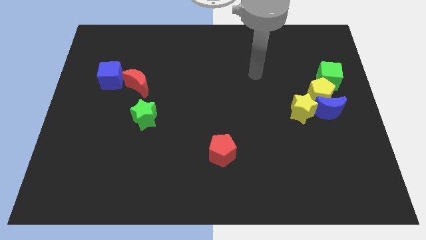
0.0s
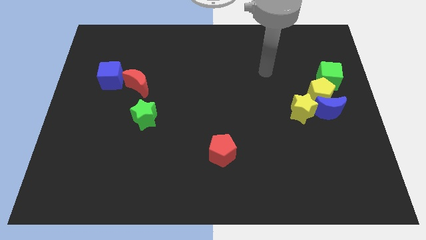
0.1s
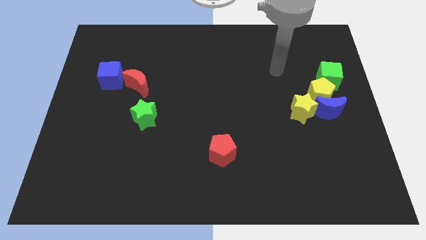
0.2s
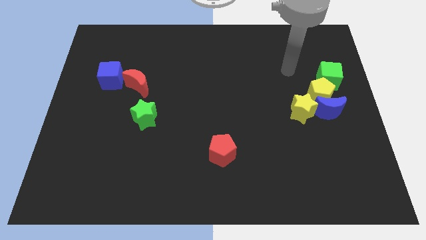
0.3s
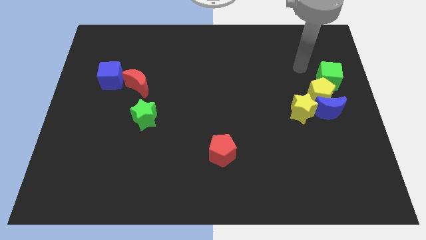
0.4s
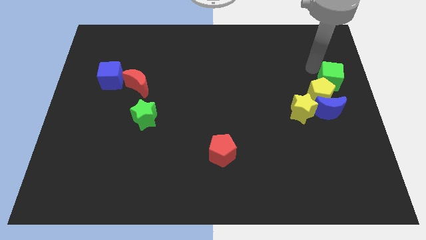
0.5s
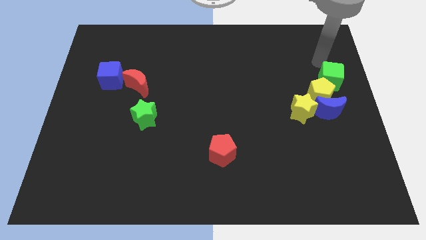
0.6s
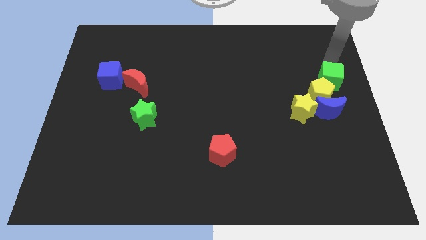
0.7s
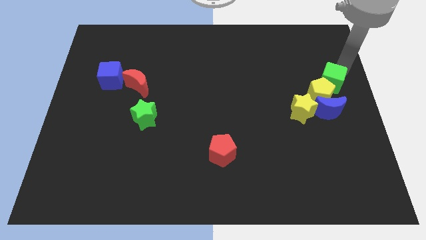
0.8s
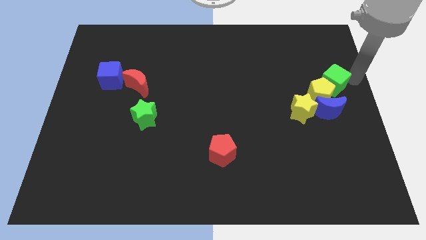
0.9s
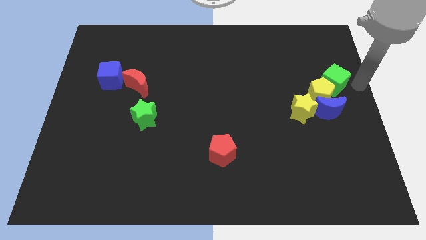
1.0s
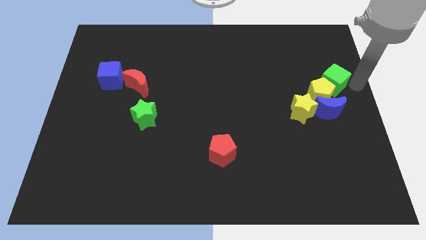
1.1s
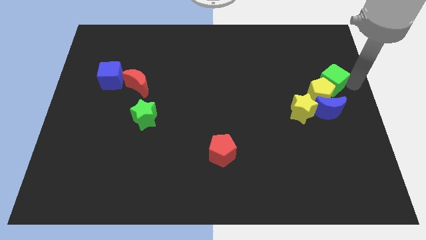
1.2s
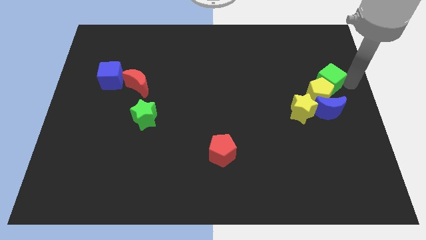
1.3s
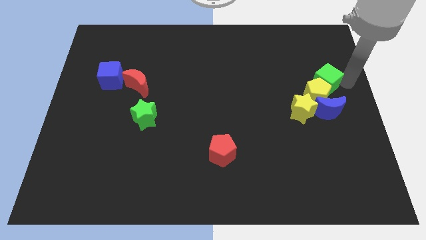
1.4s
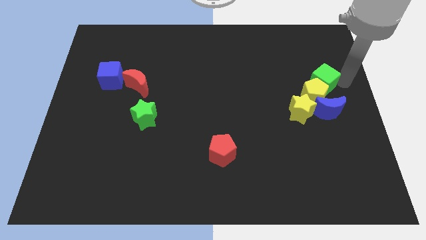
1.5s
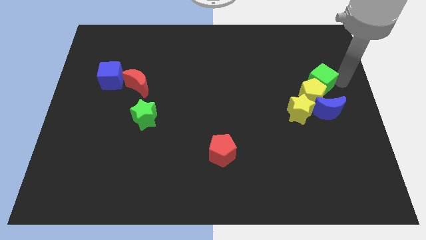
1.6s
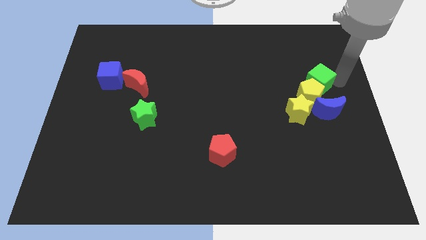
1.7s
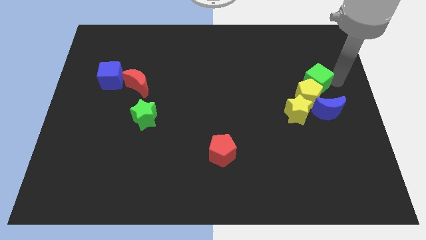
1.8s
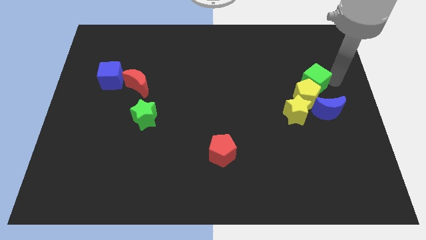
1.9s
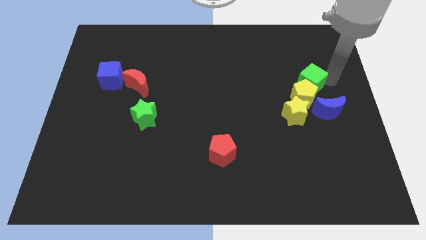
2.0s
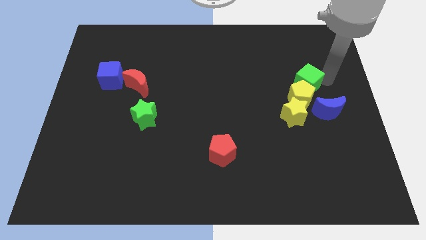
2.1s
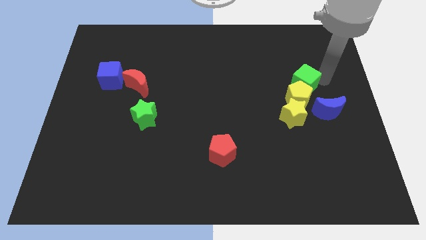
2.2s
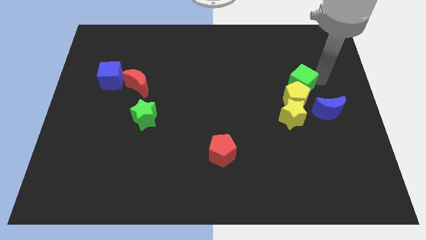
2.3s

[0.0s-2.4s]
move the green cube somewhat left

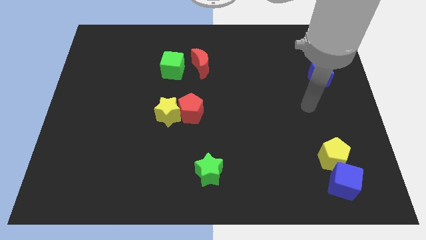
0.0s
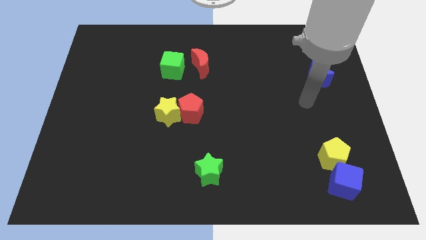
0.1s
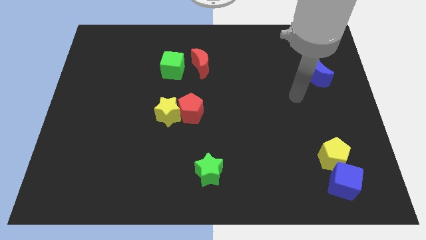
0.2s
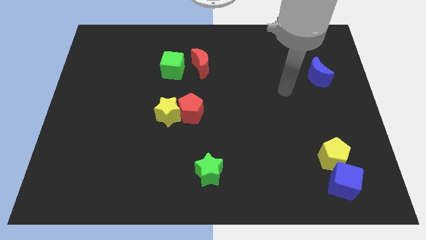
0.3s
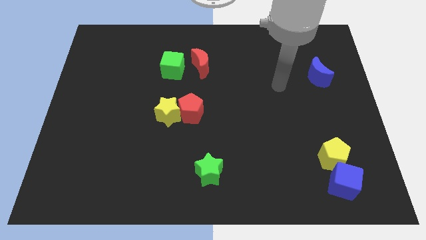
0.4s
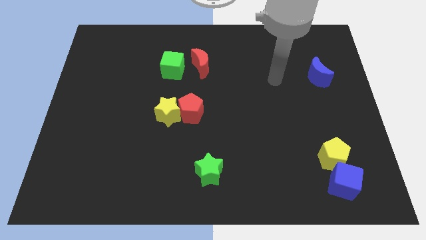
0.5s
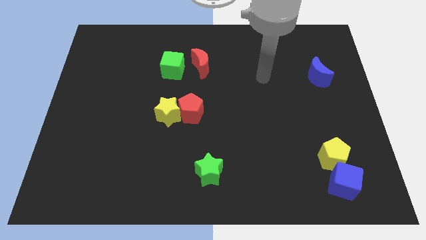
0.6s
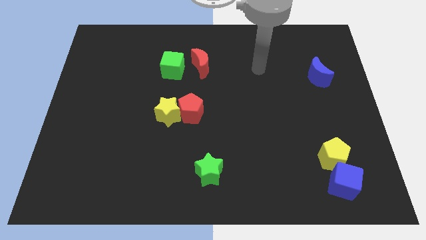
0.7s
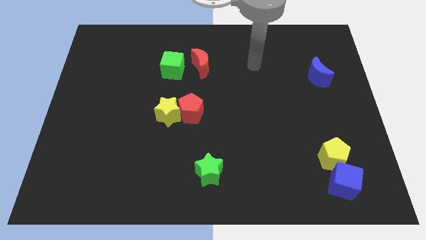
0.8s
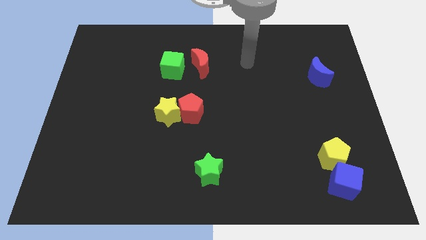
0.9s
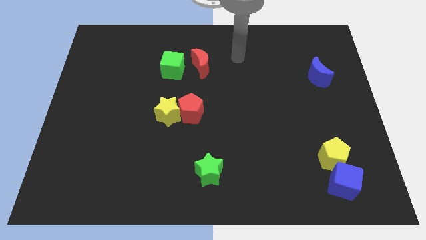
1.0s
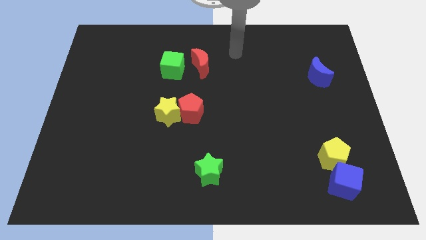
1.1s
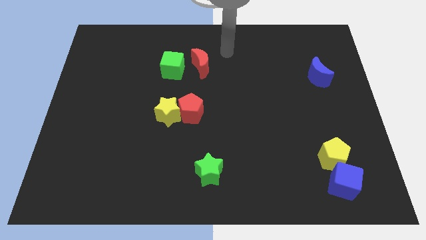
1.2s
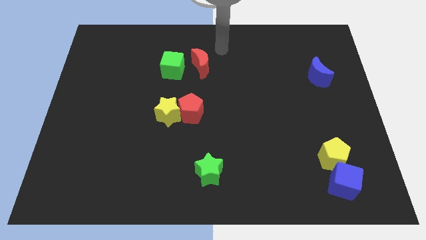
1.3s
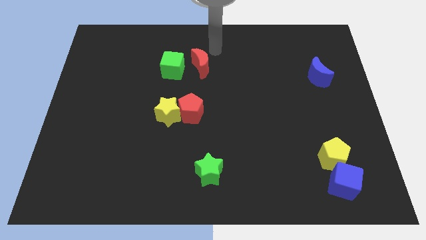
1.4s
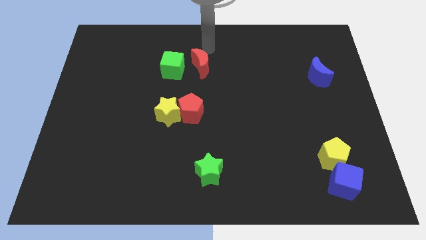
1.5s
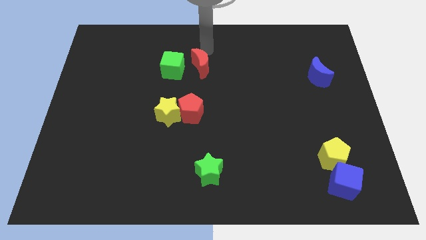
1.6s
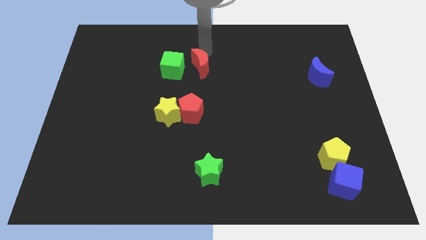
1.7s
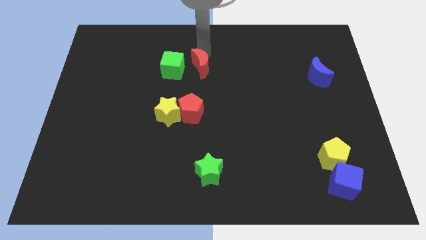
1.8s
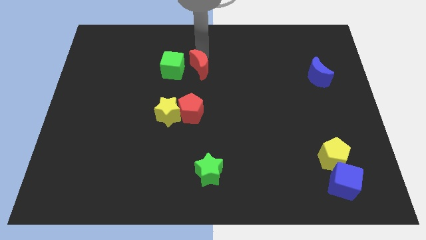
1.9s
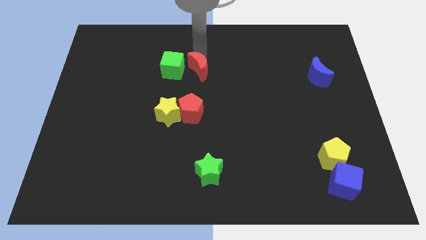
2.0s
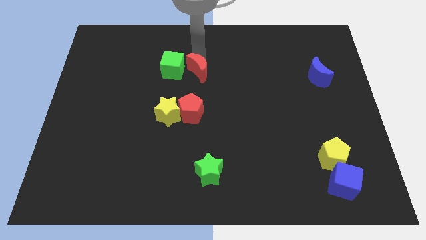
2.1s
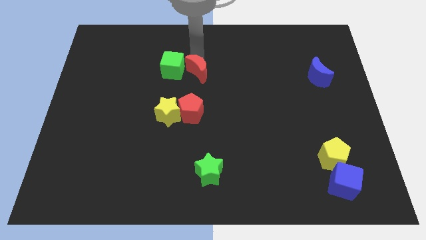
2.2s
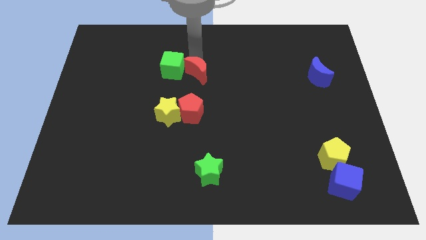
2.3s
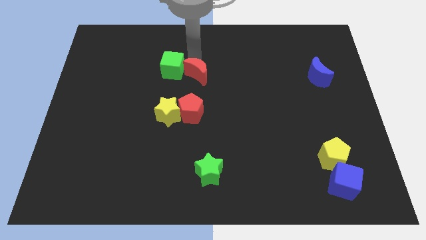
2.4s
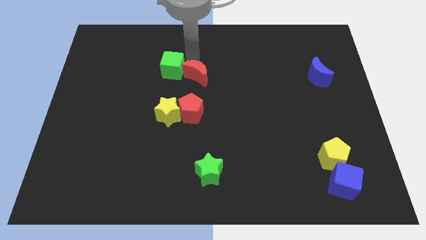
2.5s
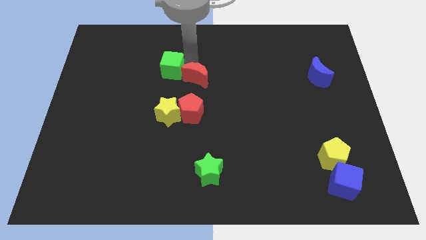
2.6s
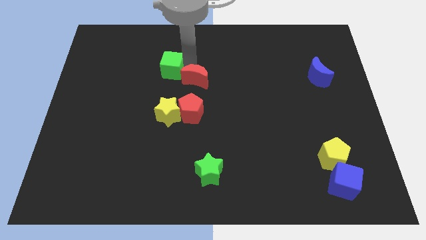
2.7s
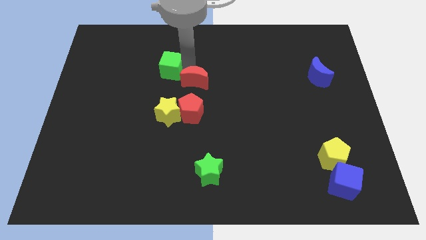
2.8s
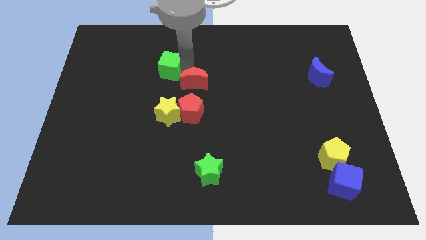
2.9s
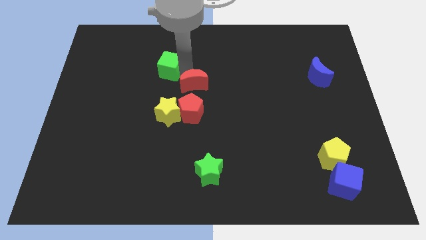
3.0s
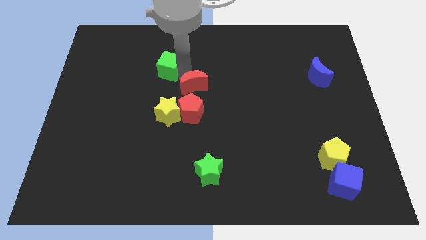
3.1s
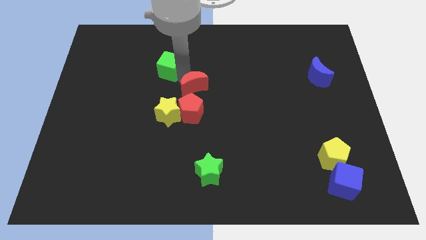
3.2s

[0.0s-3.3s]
push the red moon a little down

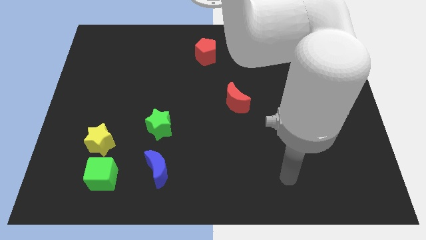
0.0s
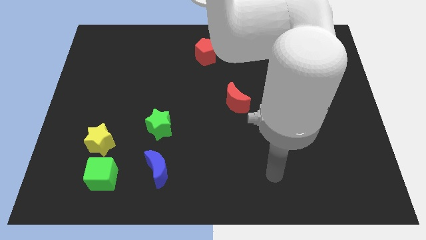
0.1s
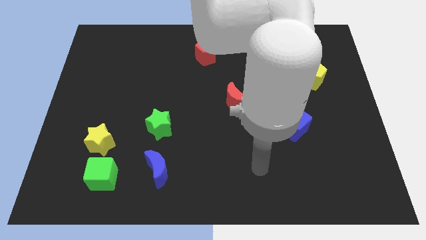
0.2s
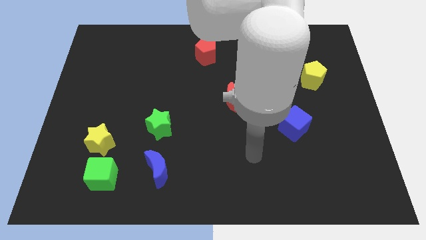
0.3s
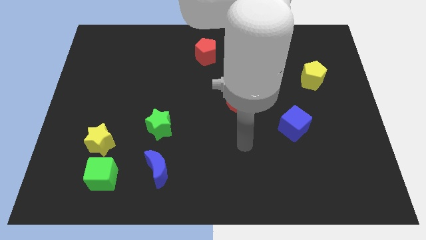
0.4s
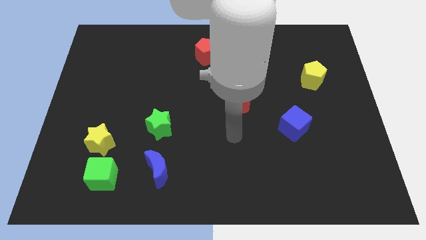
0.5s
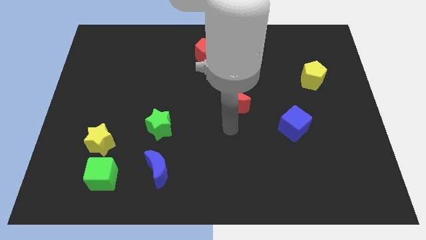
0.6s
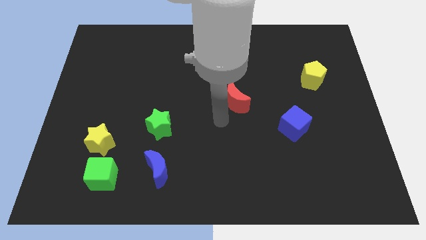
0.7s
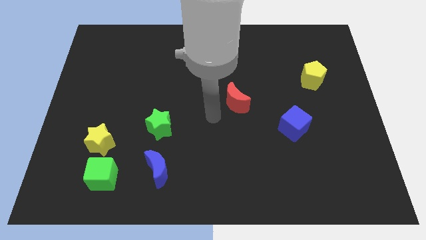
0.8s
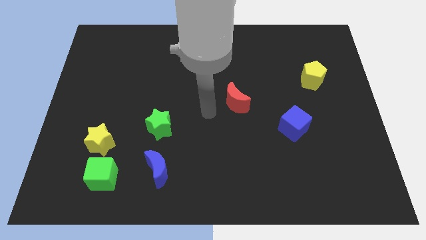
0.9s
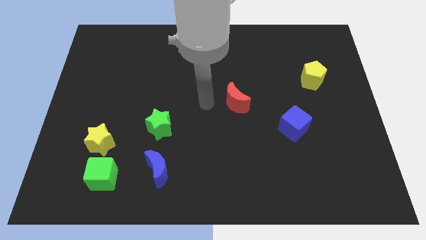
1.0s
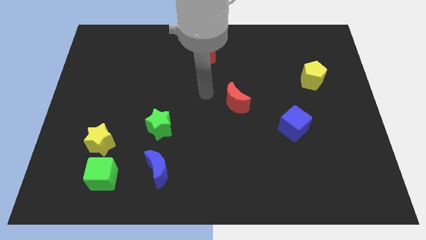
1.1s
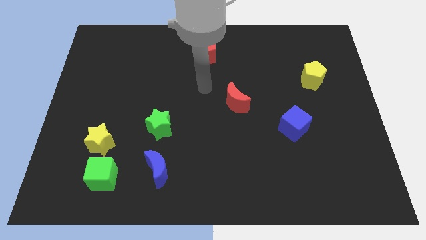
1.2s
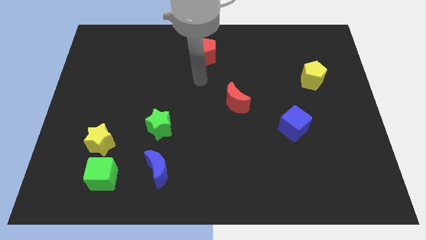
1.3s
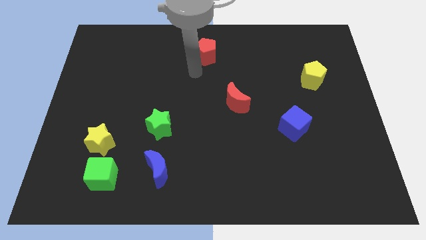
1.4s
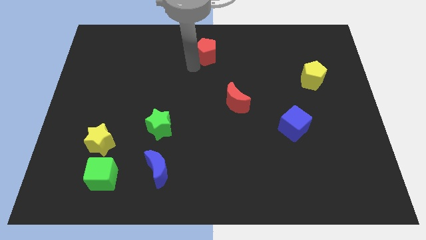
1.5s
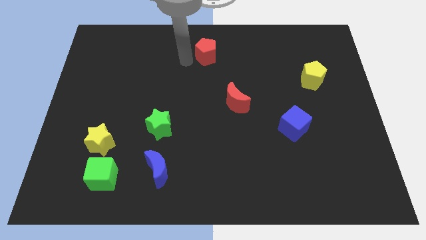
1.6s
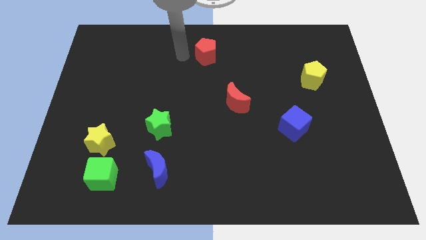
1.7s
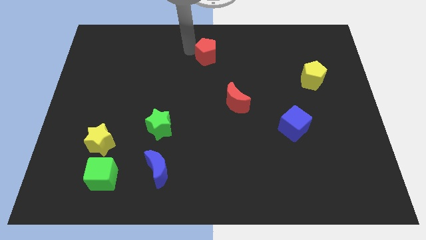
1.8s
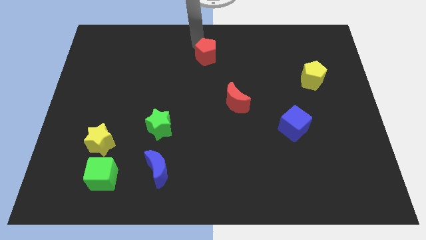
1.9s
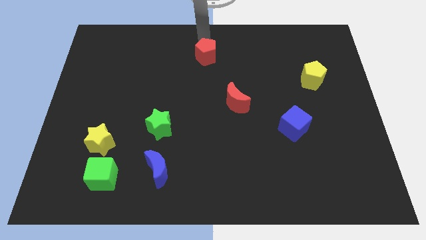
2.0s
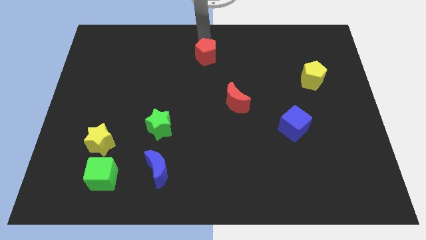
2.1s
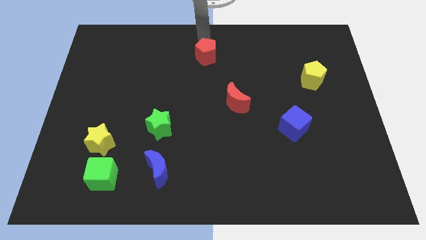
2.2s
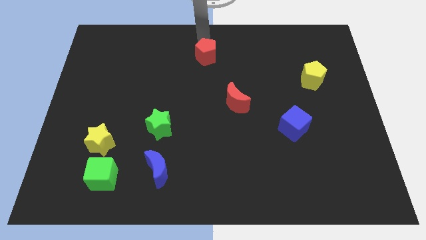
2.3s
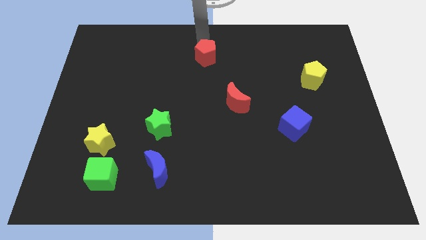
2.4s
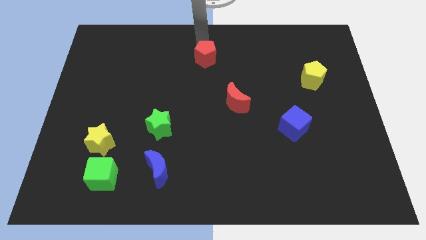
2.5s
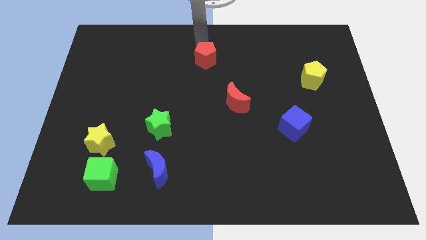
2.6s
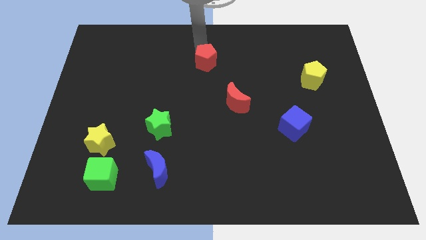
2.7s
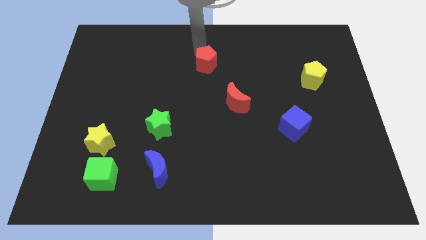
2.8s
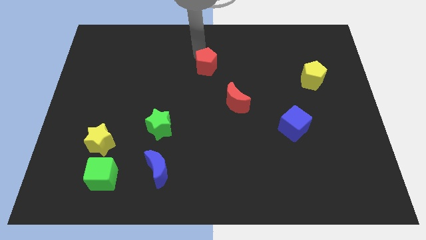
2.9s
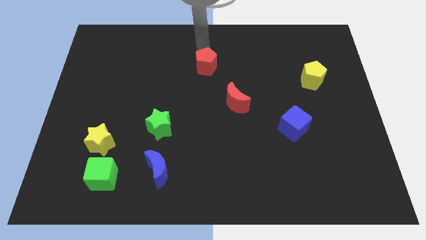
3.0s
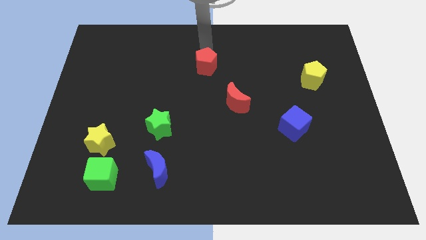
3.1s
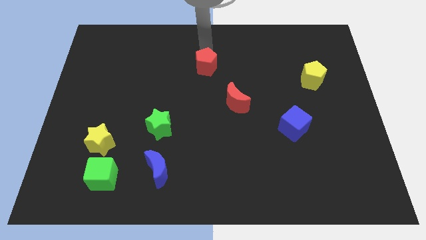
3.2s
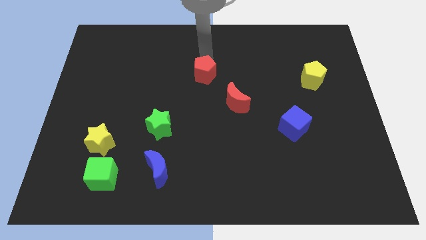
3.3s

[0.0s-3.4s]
push the red pentagon a little bit downwards
